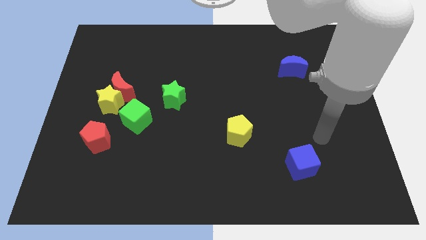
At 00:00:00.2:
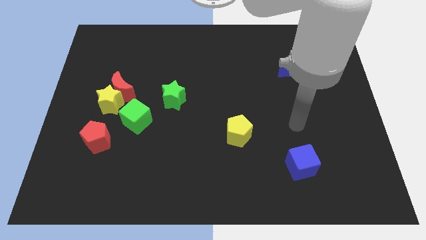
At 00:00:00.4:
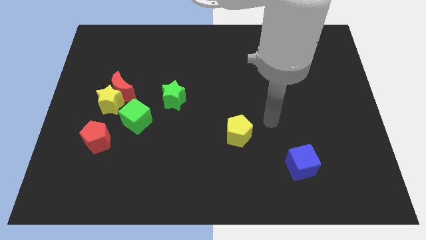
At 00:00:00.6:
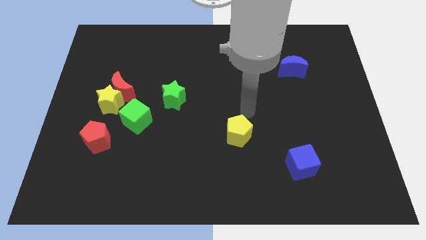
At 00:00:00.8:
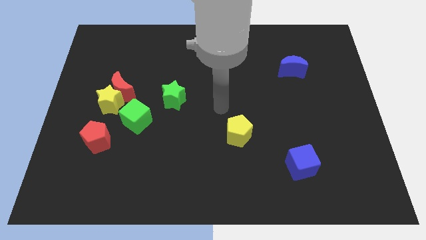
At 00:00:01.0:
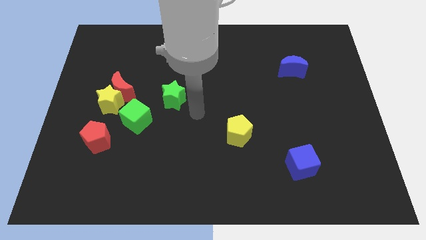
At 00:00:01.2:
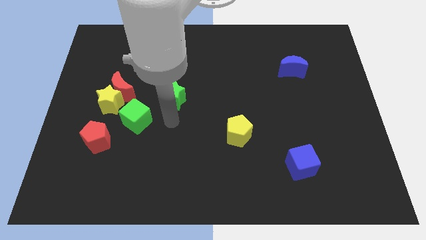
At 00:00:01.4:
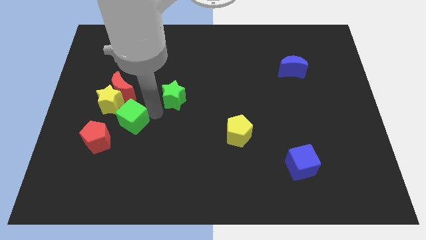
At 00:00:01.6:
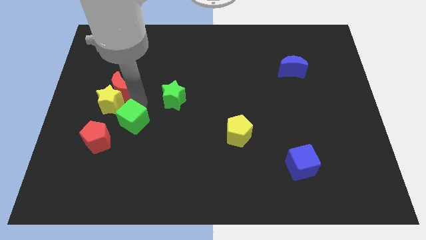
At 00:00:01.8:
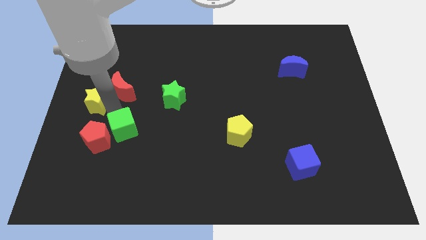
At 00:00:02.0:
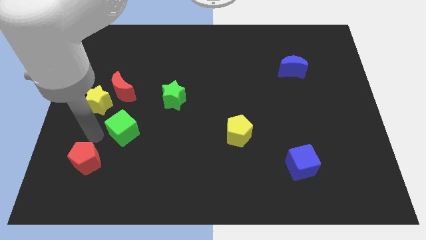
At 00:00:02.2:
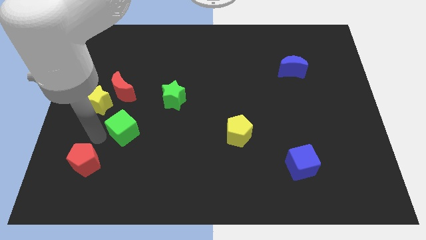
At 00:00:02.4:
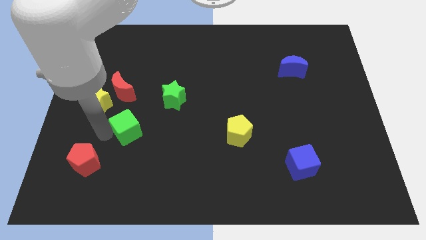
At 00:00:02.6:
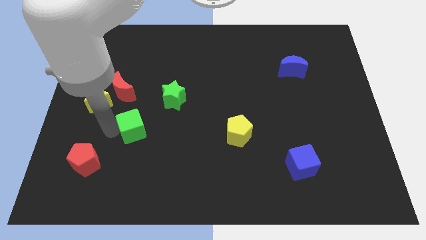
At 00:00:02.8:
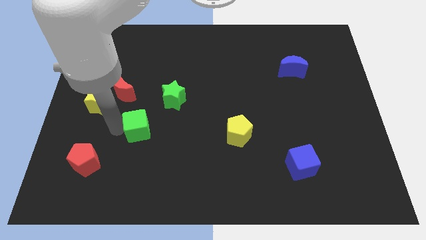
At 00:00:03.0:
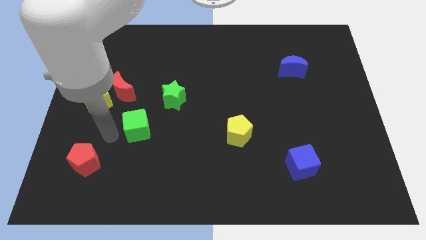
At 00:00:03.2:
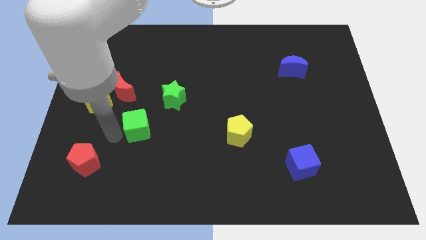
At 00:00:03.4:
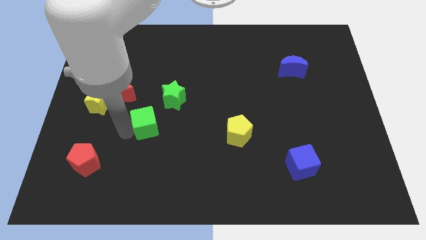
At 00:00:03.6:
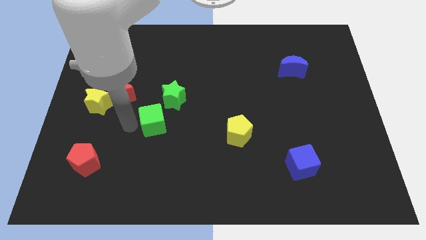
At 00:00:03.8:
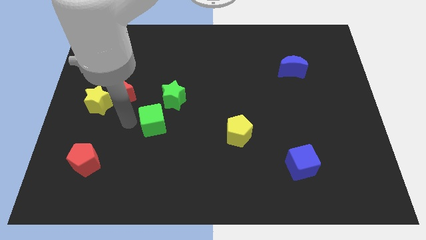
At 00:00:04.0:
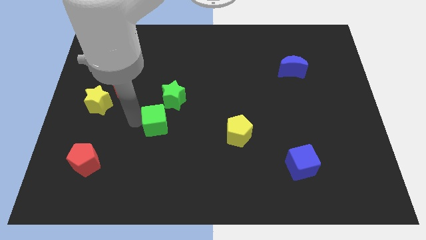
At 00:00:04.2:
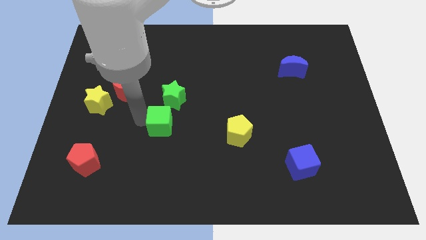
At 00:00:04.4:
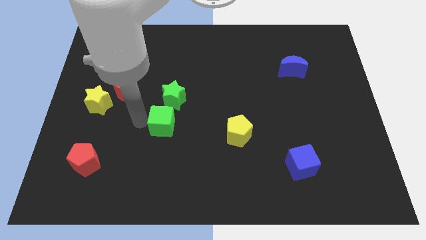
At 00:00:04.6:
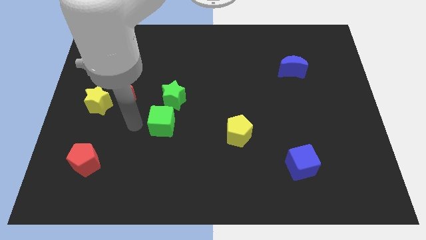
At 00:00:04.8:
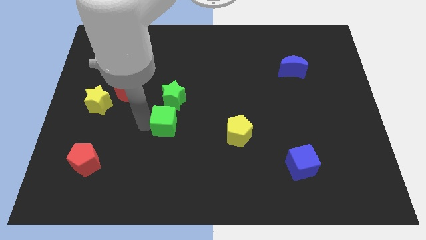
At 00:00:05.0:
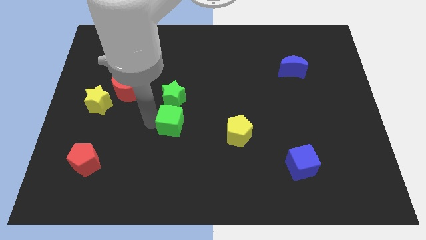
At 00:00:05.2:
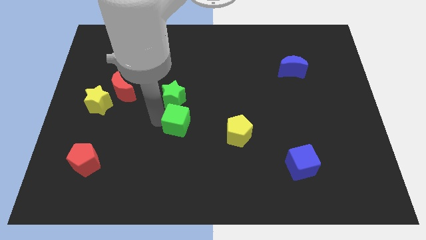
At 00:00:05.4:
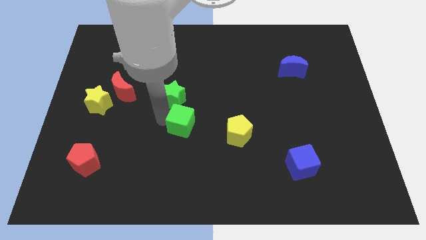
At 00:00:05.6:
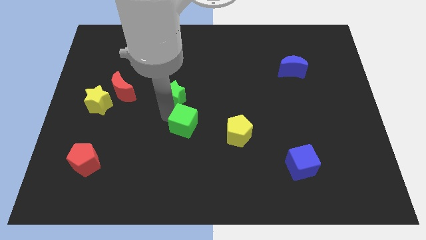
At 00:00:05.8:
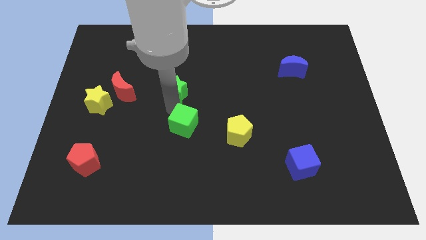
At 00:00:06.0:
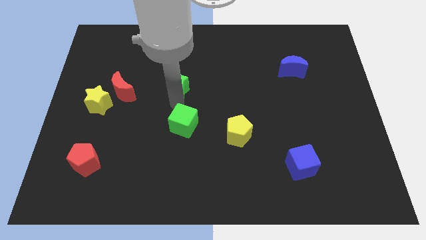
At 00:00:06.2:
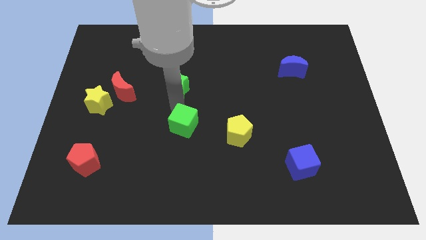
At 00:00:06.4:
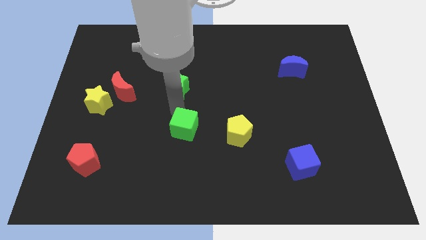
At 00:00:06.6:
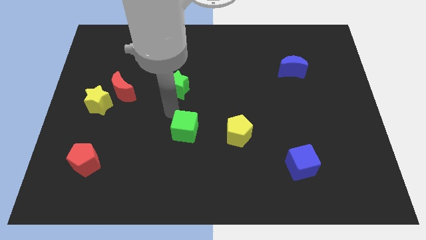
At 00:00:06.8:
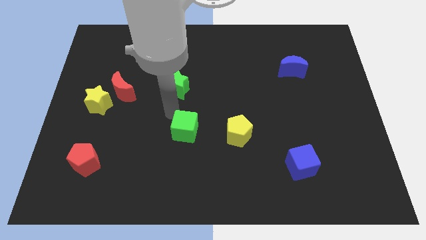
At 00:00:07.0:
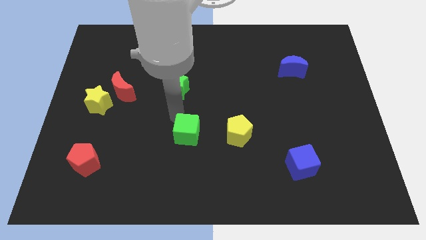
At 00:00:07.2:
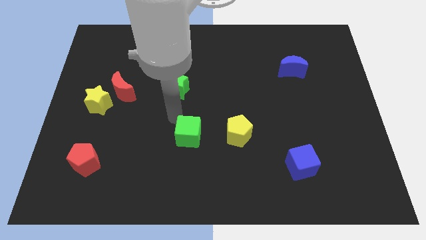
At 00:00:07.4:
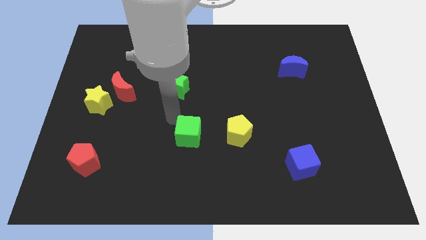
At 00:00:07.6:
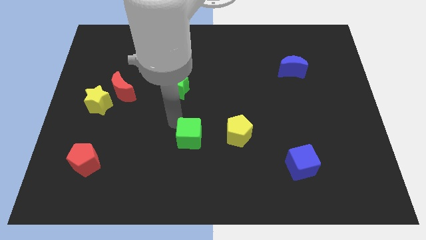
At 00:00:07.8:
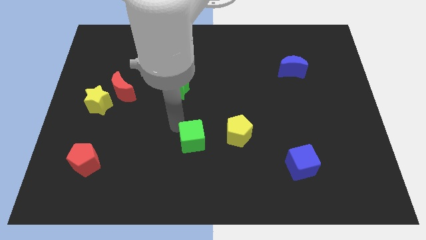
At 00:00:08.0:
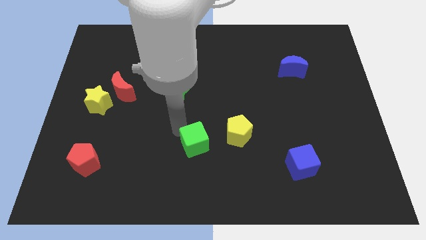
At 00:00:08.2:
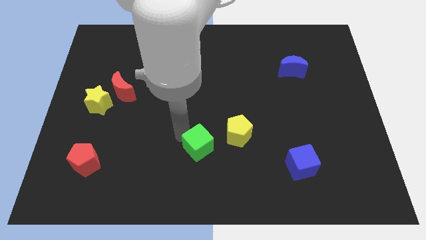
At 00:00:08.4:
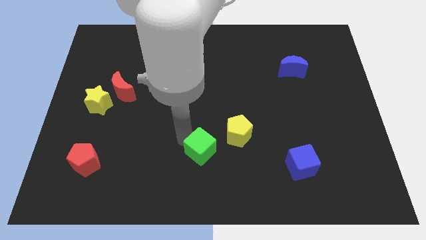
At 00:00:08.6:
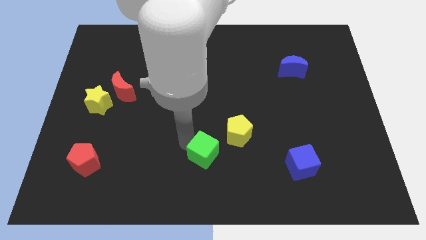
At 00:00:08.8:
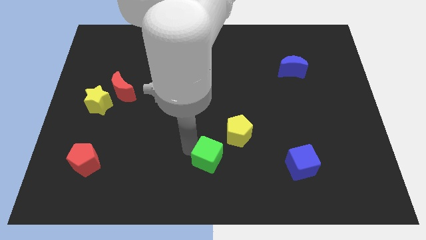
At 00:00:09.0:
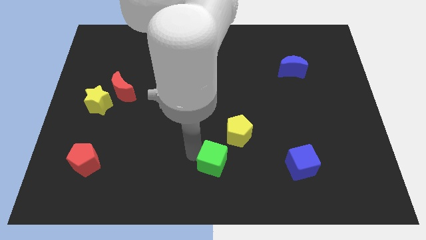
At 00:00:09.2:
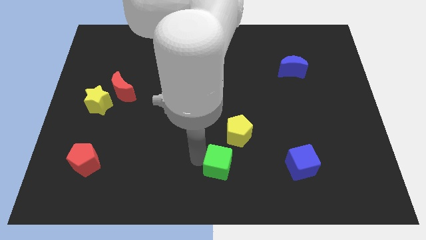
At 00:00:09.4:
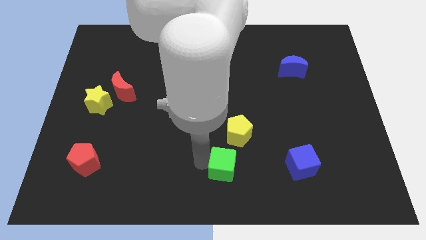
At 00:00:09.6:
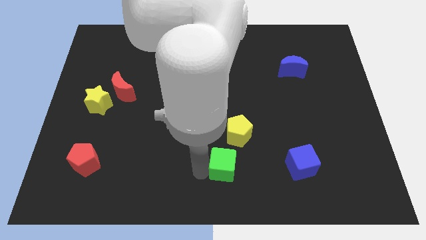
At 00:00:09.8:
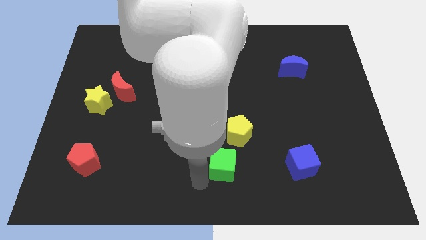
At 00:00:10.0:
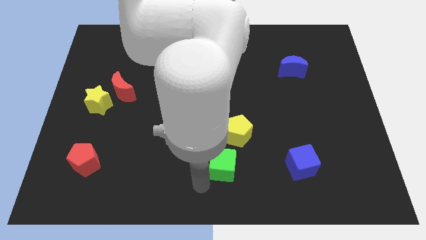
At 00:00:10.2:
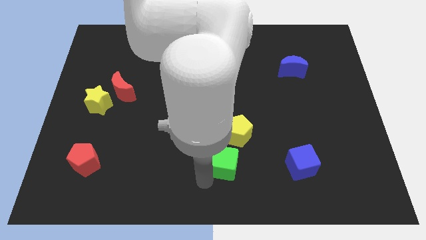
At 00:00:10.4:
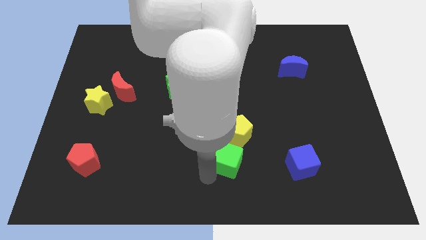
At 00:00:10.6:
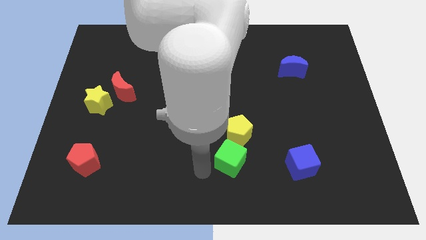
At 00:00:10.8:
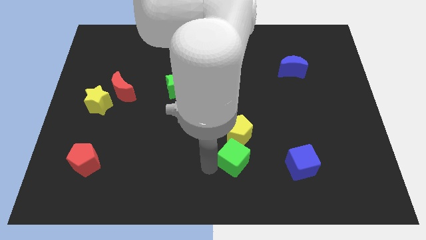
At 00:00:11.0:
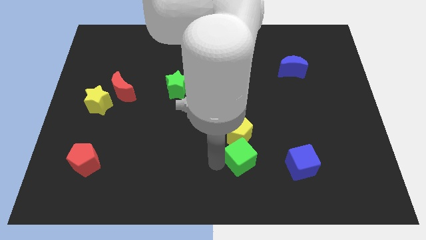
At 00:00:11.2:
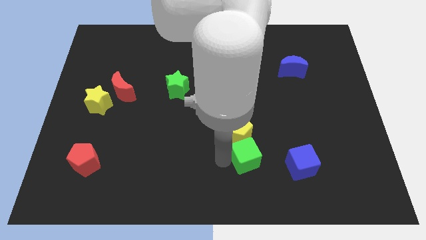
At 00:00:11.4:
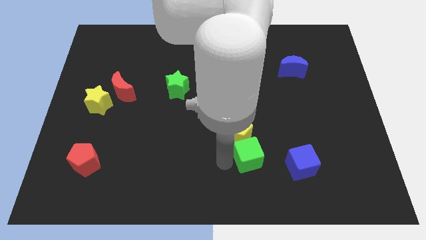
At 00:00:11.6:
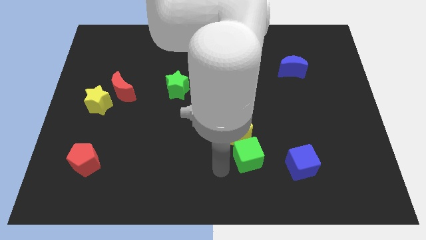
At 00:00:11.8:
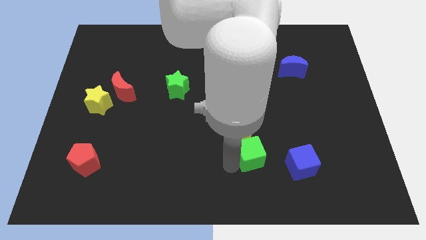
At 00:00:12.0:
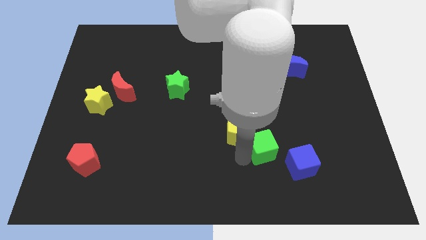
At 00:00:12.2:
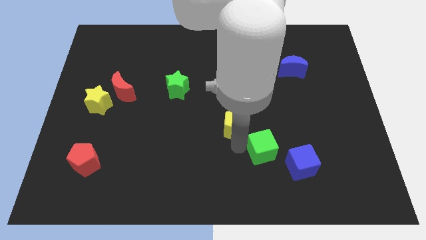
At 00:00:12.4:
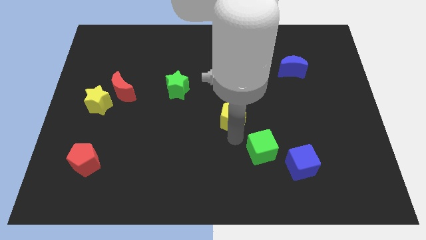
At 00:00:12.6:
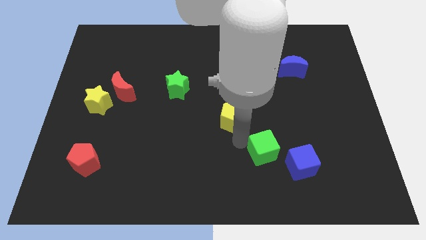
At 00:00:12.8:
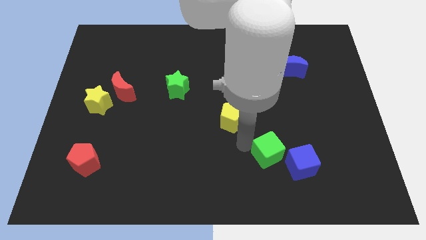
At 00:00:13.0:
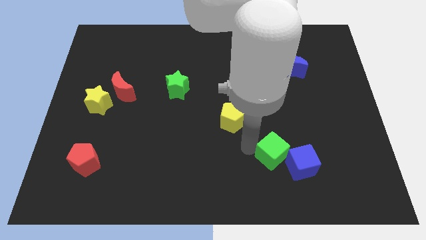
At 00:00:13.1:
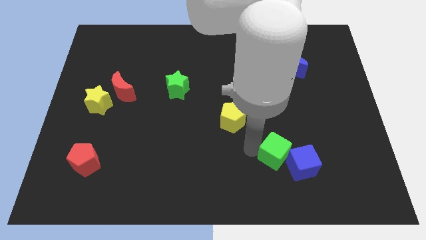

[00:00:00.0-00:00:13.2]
move the green cube next to the blue cube

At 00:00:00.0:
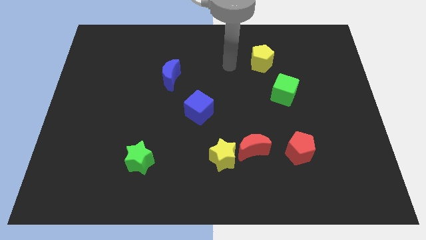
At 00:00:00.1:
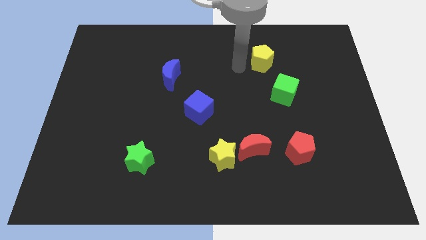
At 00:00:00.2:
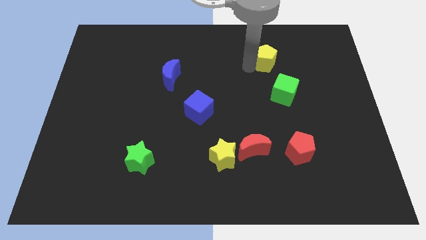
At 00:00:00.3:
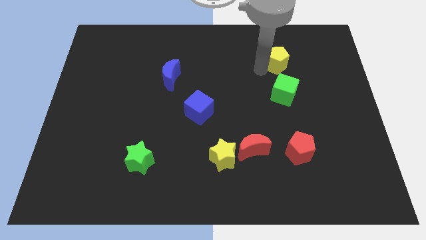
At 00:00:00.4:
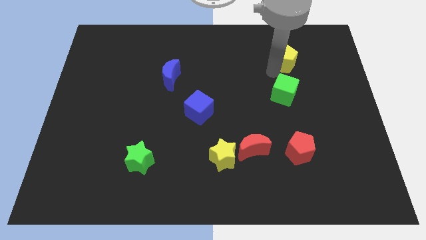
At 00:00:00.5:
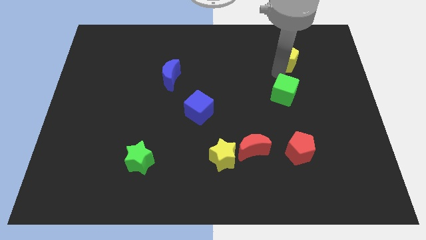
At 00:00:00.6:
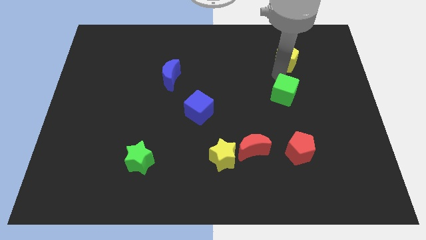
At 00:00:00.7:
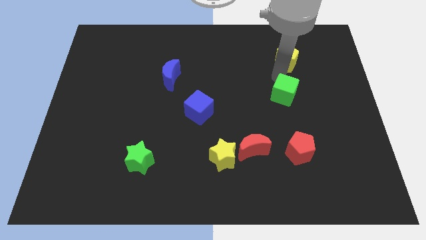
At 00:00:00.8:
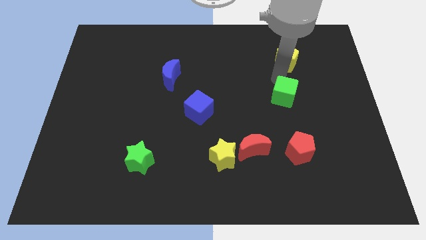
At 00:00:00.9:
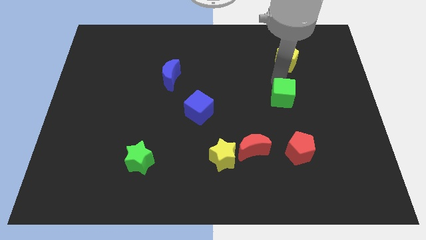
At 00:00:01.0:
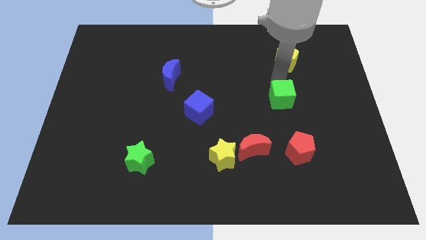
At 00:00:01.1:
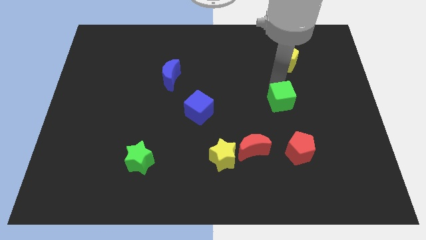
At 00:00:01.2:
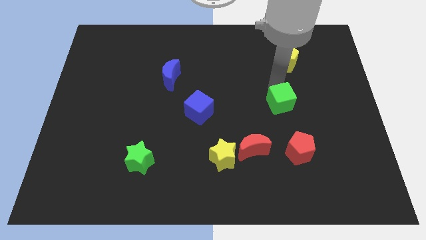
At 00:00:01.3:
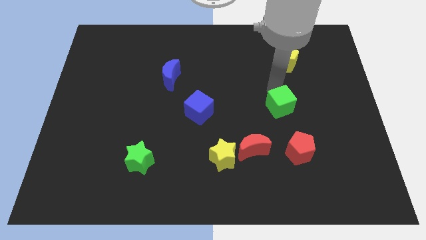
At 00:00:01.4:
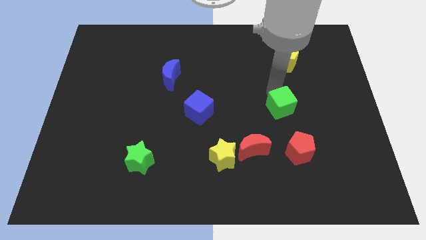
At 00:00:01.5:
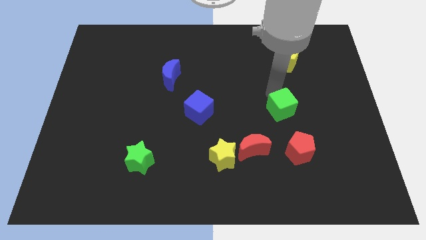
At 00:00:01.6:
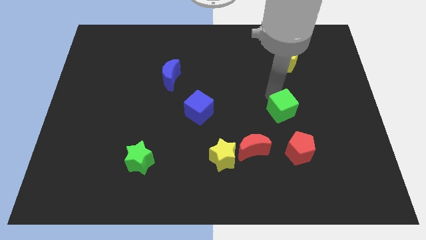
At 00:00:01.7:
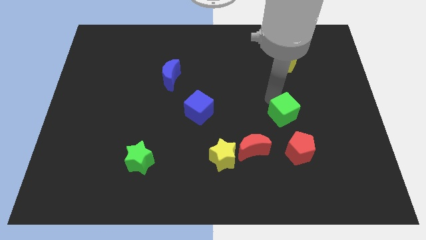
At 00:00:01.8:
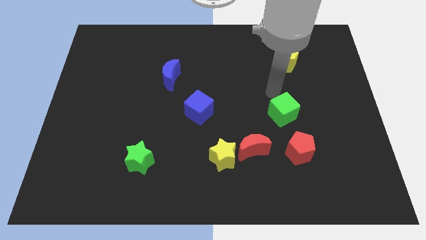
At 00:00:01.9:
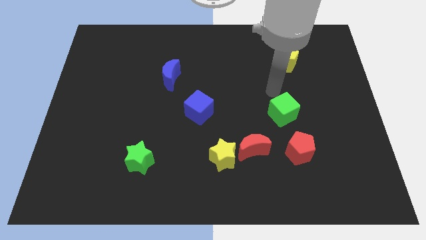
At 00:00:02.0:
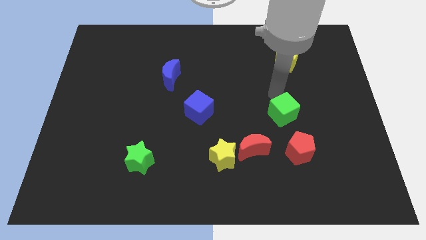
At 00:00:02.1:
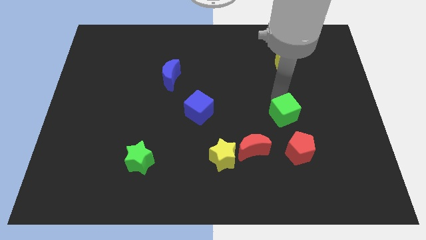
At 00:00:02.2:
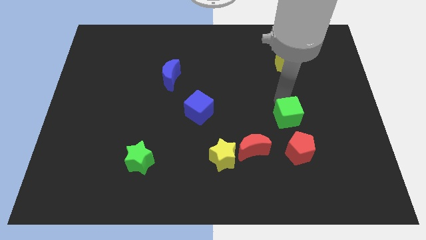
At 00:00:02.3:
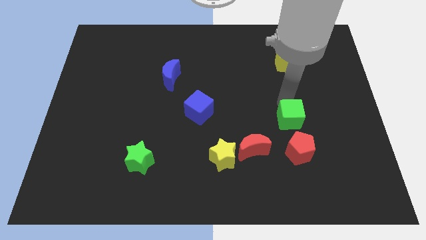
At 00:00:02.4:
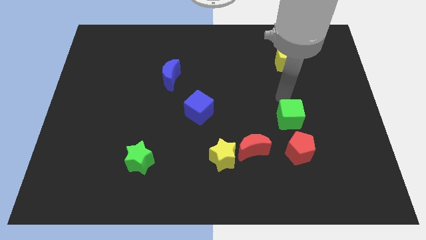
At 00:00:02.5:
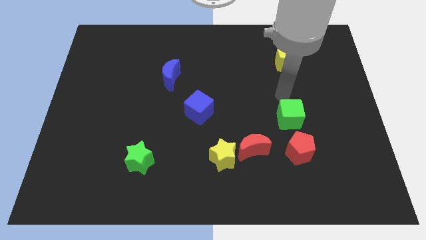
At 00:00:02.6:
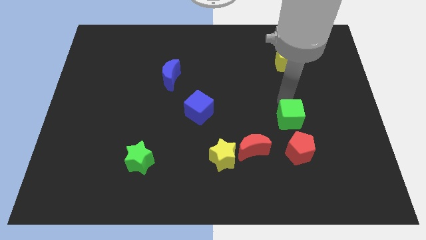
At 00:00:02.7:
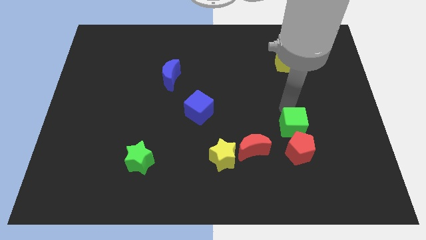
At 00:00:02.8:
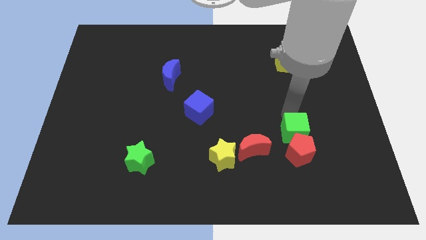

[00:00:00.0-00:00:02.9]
push the green cube towards the red pentagon
